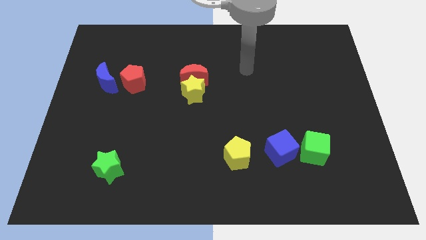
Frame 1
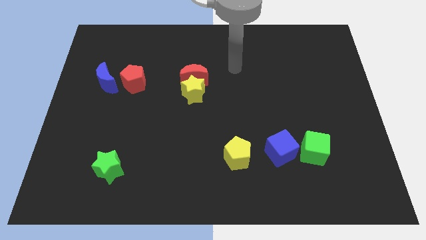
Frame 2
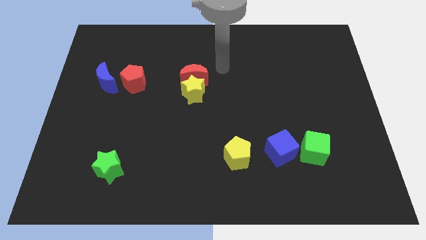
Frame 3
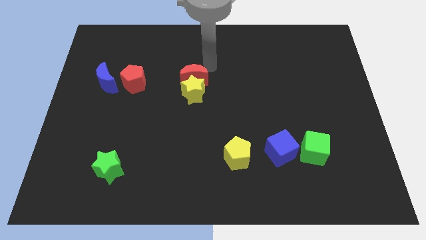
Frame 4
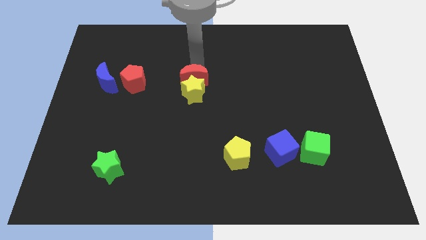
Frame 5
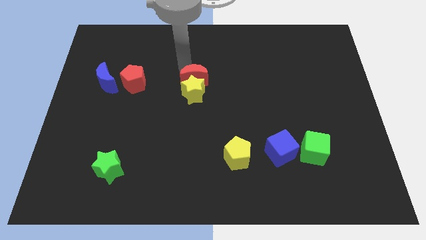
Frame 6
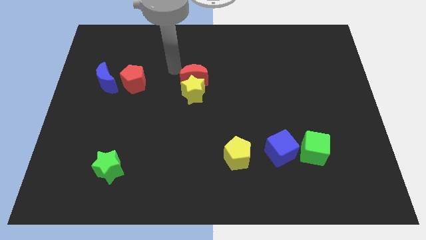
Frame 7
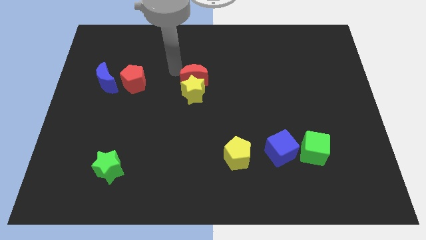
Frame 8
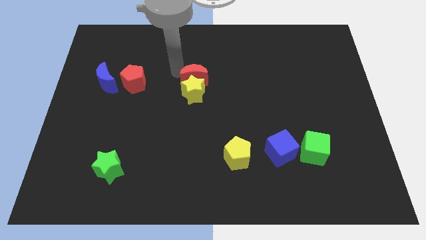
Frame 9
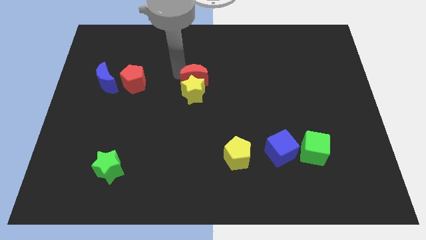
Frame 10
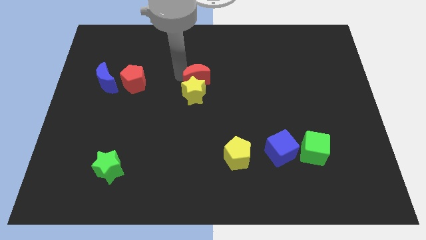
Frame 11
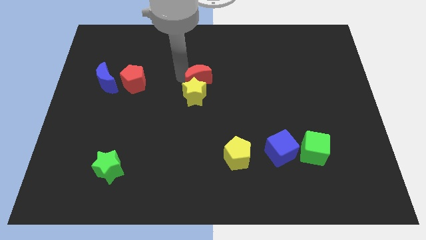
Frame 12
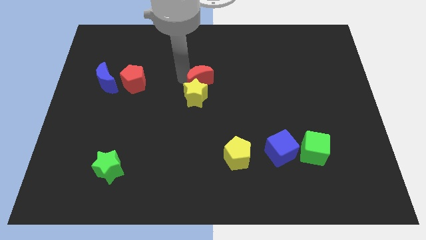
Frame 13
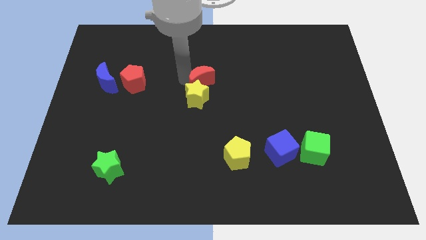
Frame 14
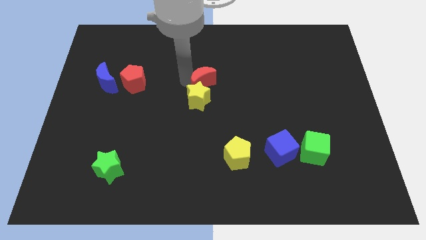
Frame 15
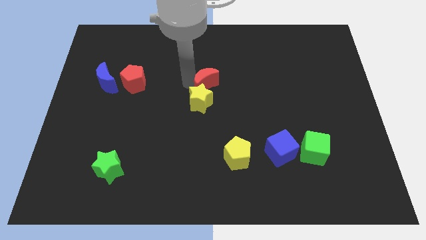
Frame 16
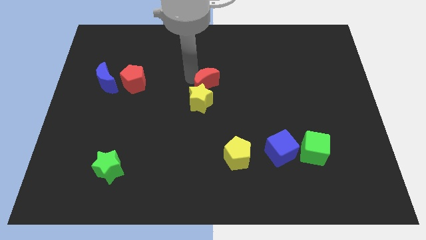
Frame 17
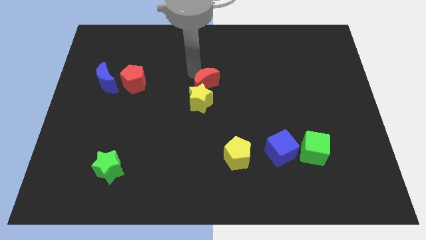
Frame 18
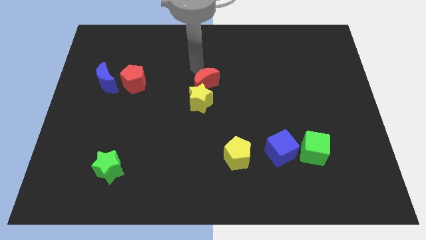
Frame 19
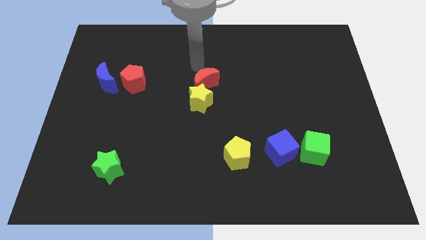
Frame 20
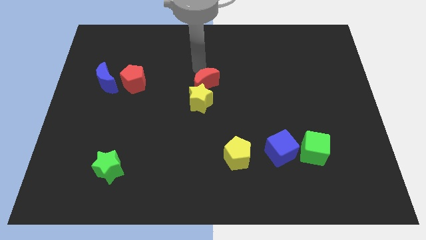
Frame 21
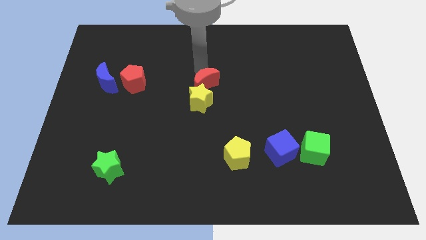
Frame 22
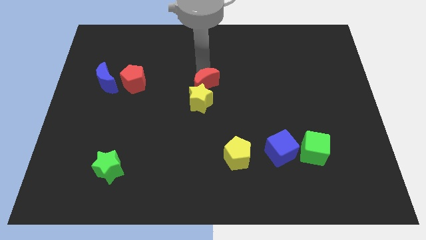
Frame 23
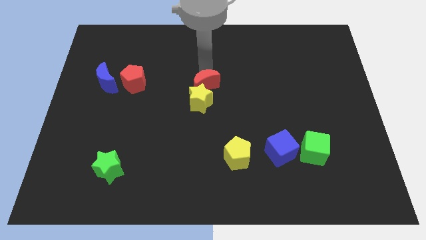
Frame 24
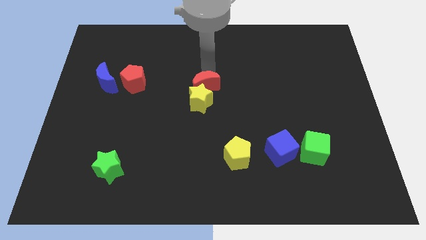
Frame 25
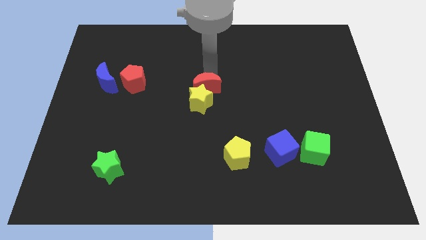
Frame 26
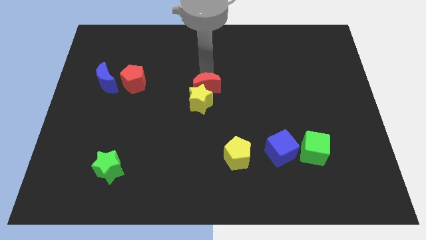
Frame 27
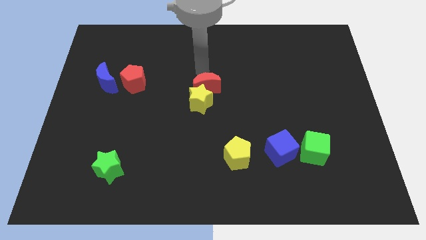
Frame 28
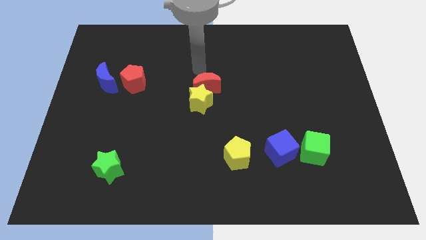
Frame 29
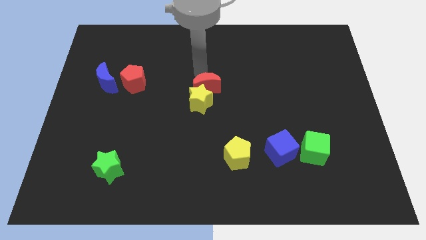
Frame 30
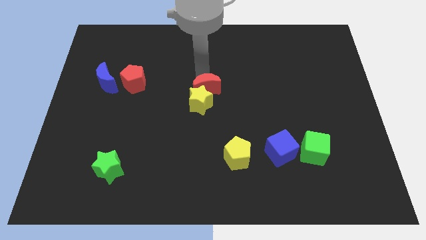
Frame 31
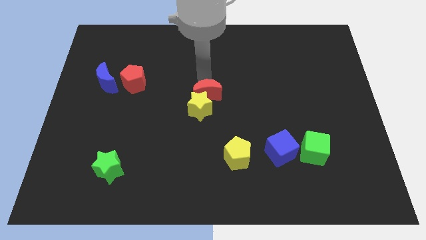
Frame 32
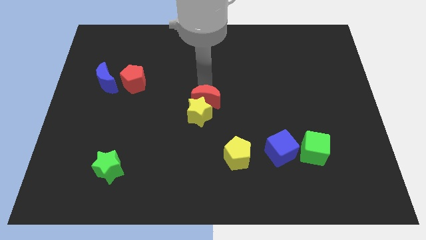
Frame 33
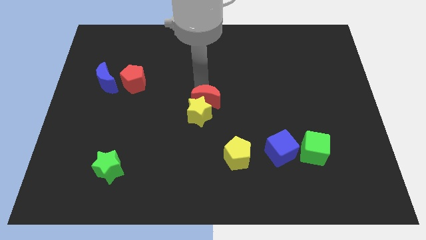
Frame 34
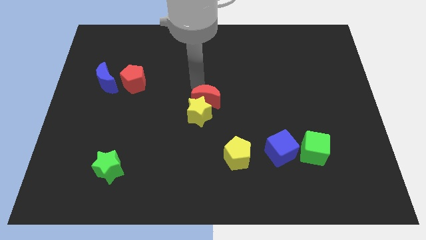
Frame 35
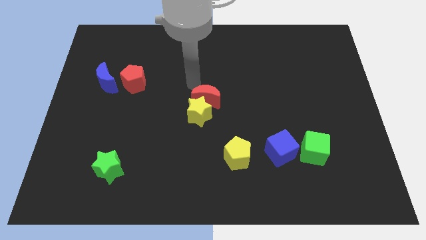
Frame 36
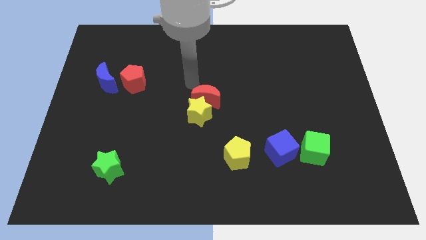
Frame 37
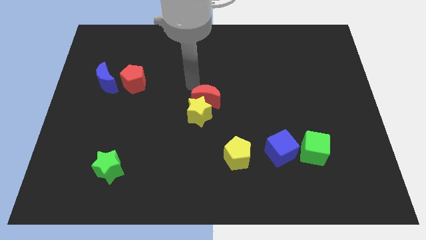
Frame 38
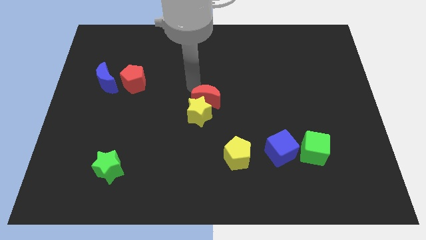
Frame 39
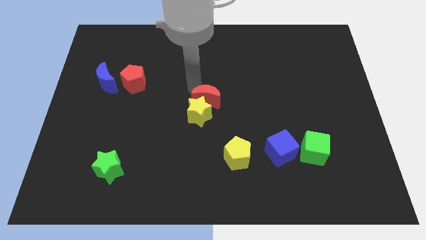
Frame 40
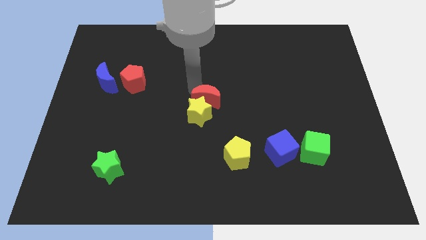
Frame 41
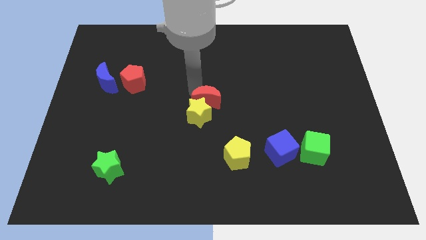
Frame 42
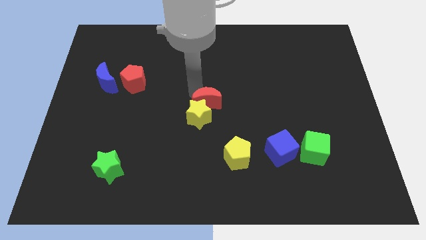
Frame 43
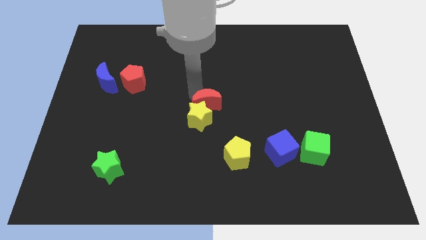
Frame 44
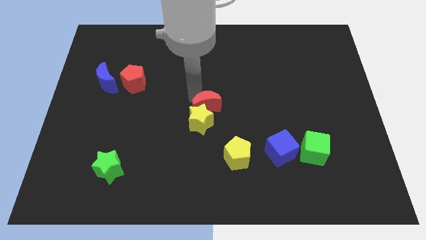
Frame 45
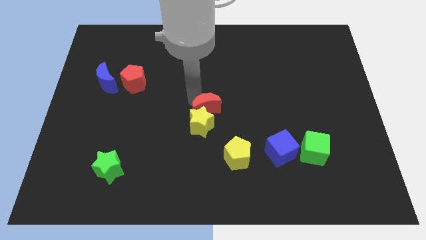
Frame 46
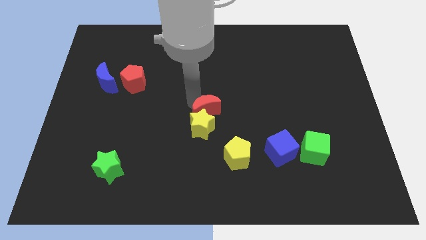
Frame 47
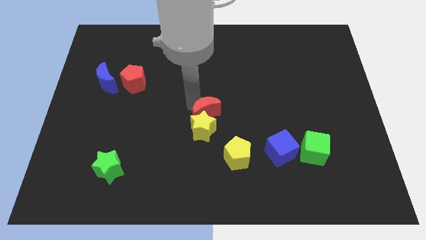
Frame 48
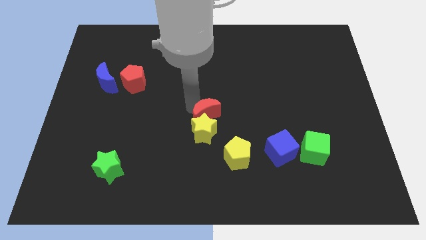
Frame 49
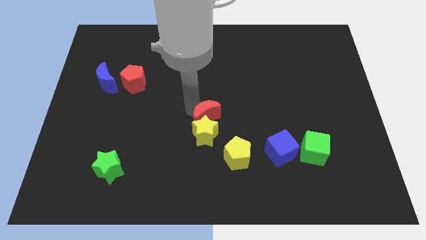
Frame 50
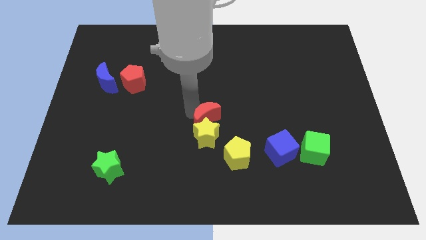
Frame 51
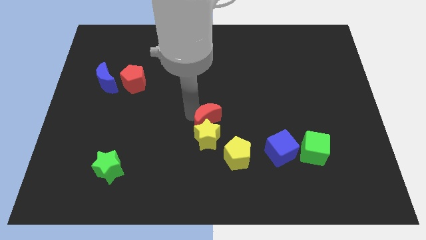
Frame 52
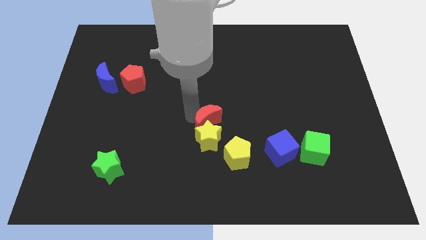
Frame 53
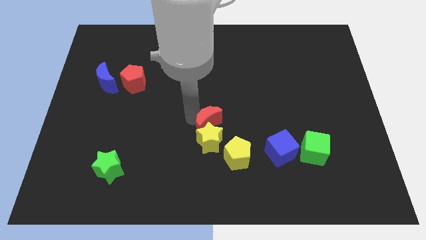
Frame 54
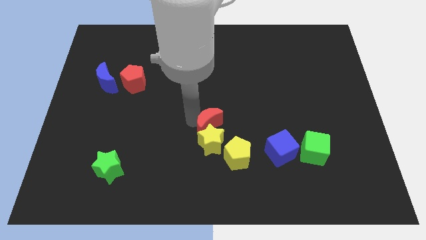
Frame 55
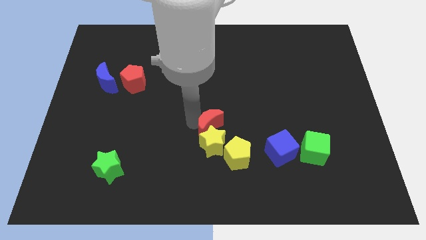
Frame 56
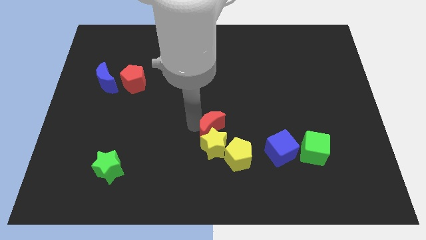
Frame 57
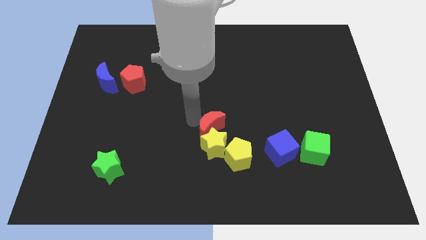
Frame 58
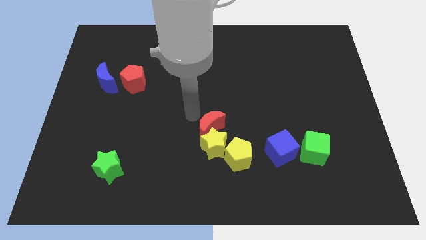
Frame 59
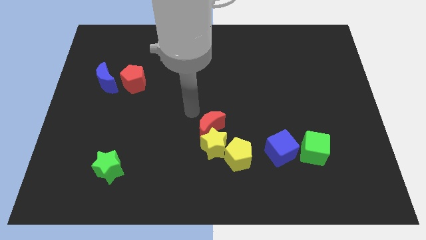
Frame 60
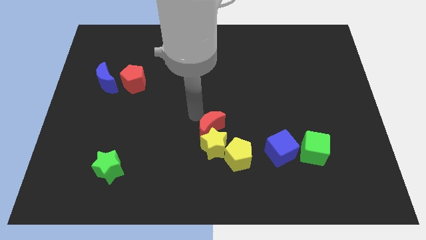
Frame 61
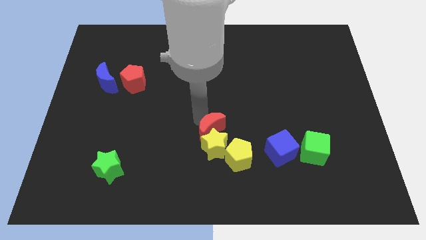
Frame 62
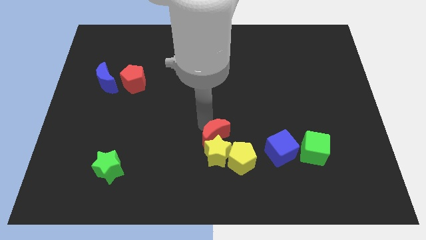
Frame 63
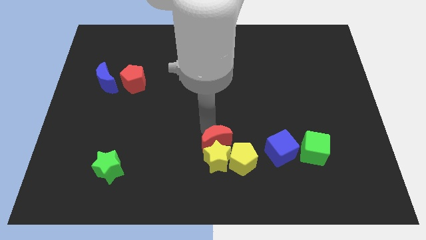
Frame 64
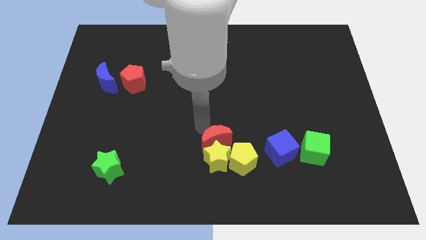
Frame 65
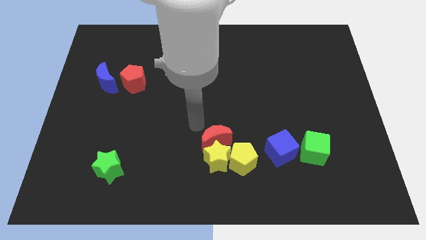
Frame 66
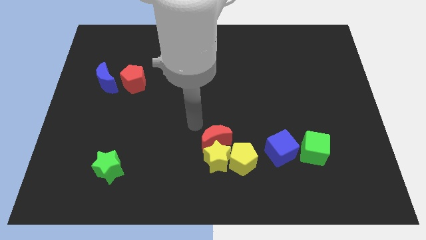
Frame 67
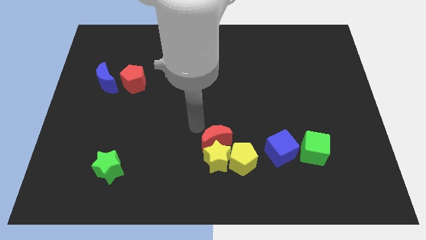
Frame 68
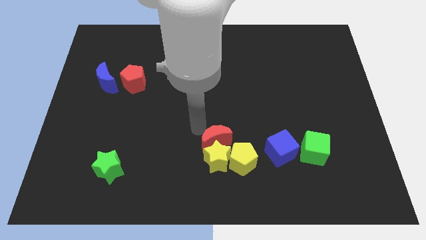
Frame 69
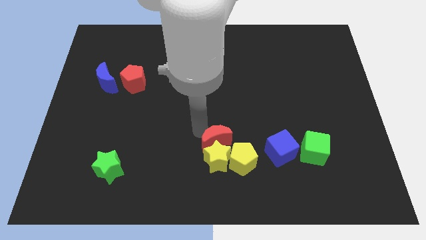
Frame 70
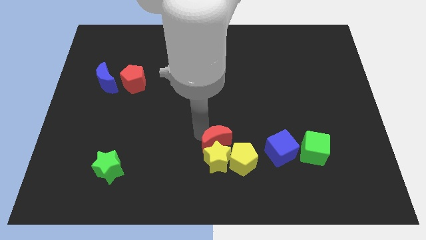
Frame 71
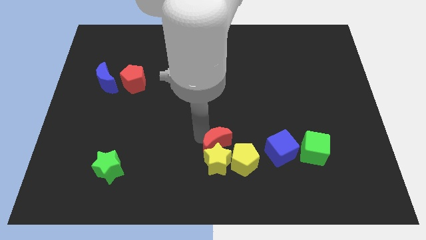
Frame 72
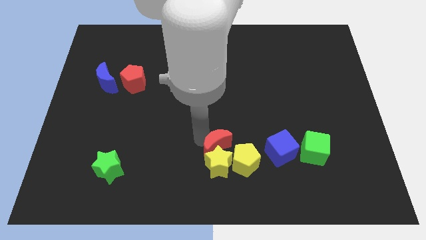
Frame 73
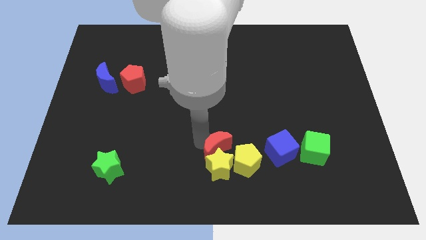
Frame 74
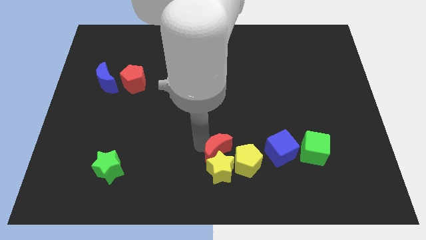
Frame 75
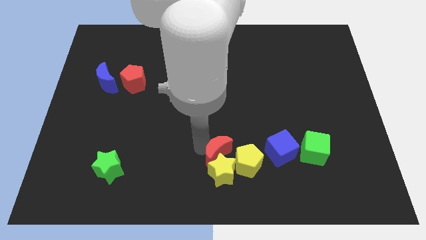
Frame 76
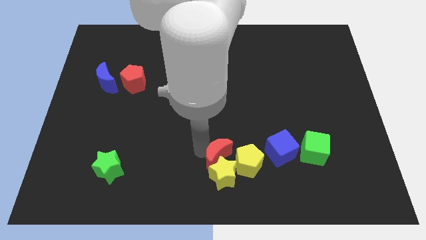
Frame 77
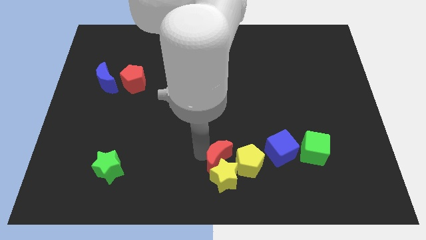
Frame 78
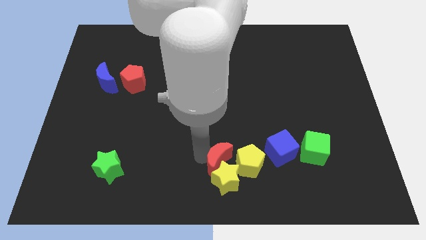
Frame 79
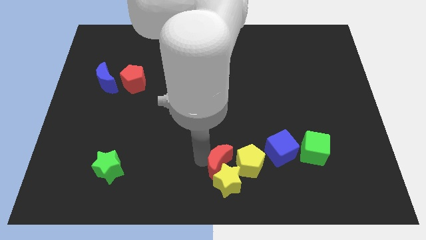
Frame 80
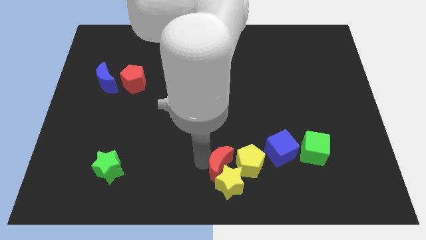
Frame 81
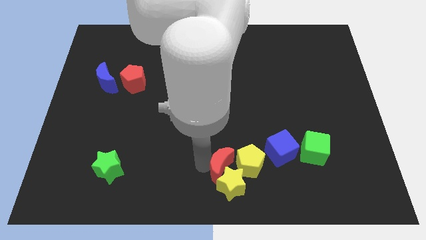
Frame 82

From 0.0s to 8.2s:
push the red moon towards the yellow pentagon
